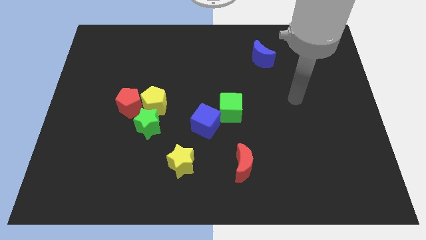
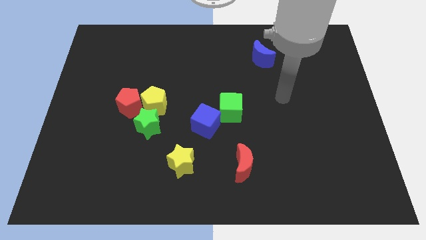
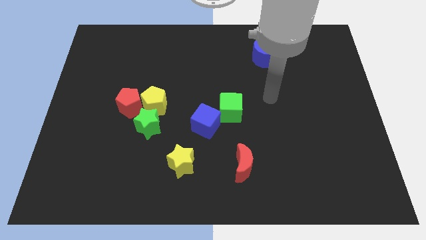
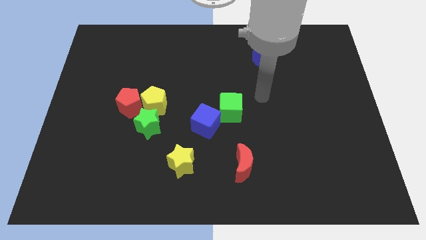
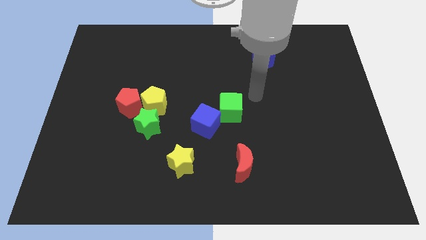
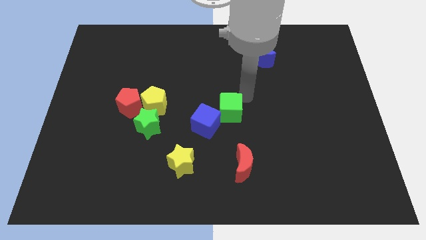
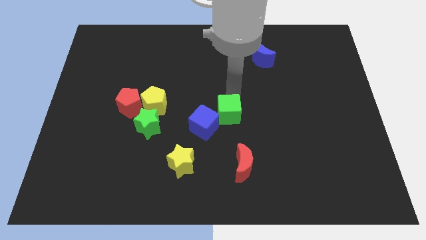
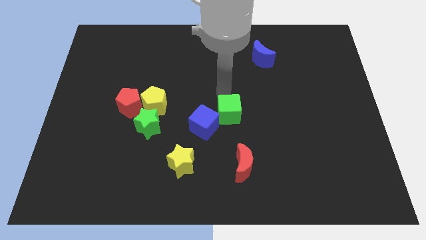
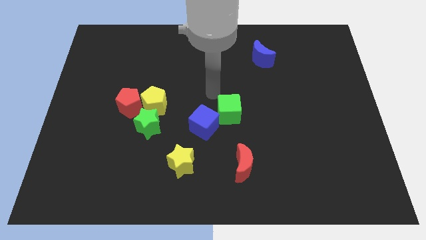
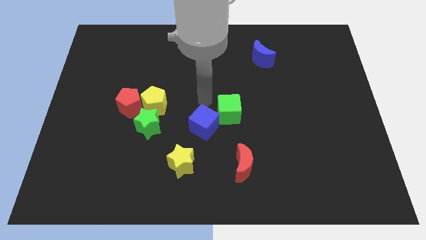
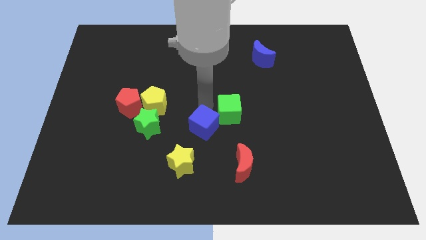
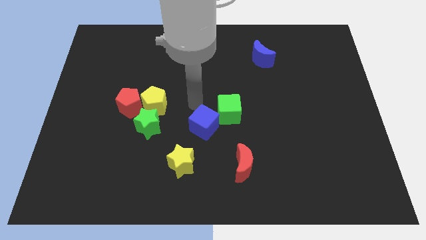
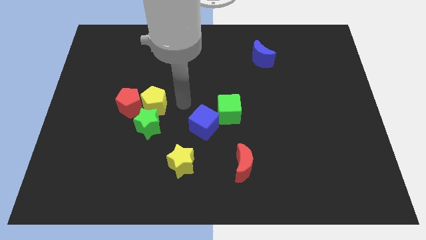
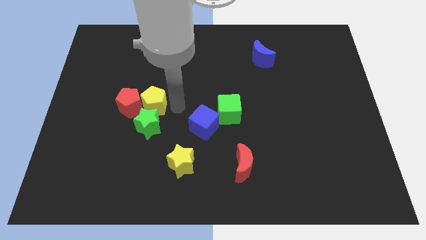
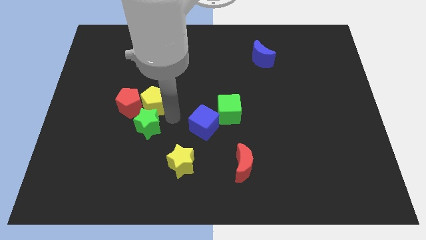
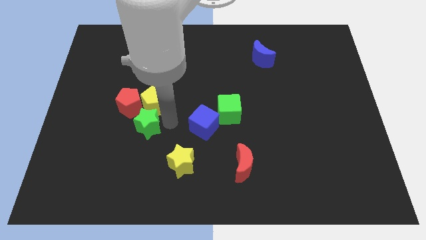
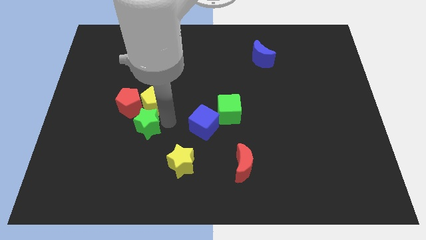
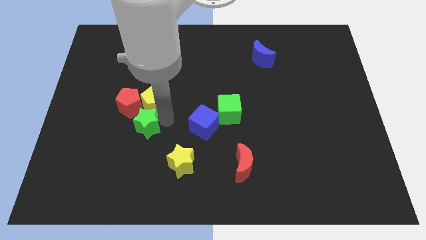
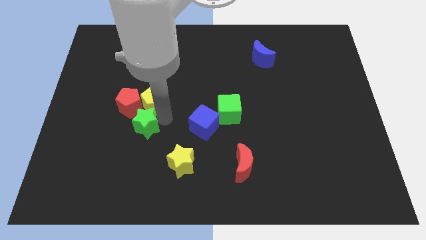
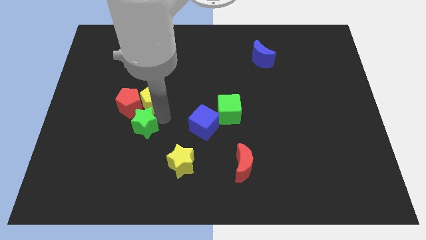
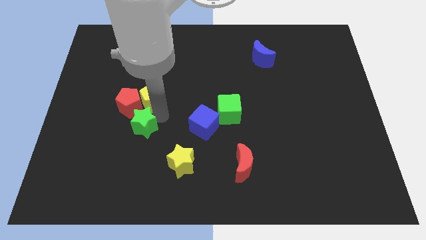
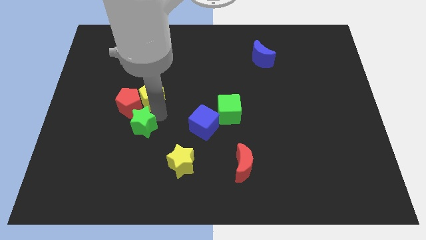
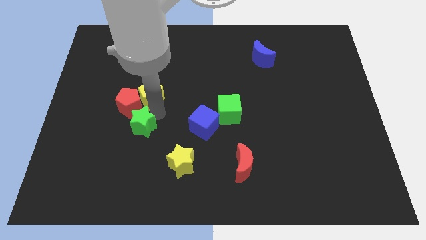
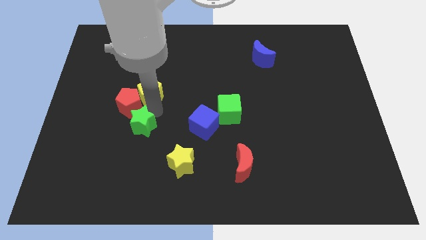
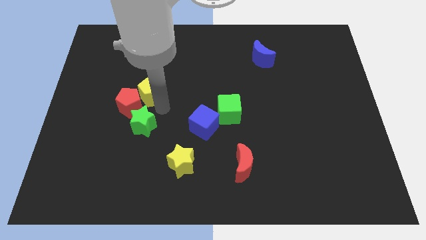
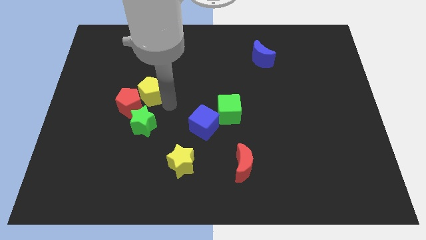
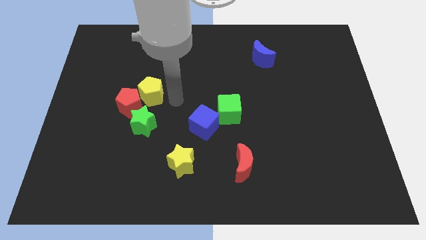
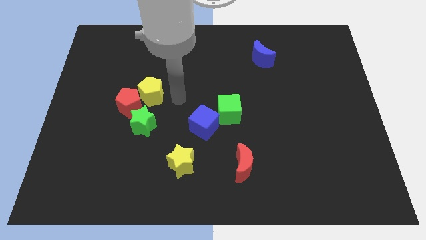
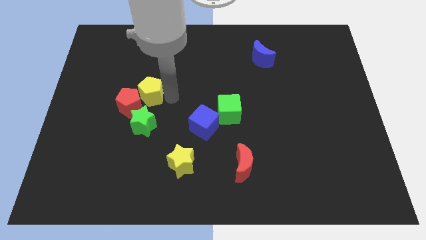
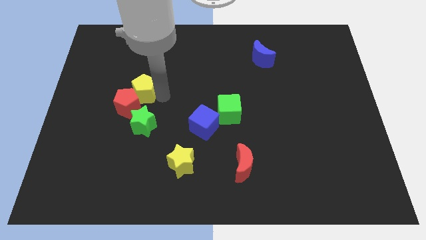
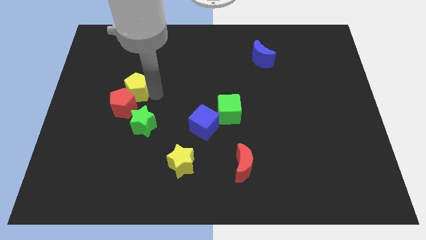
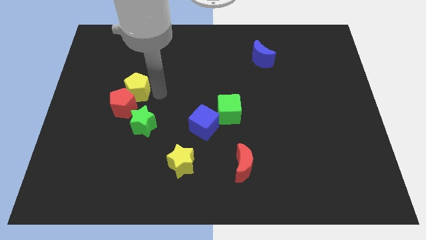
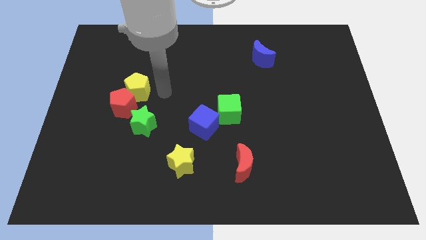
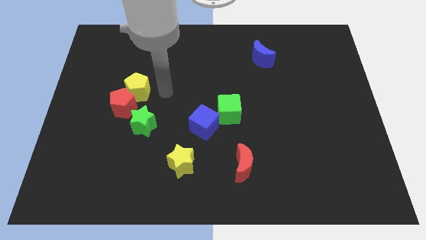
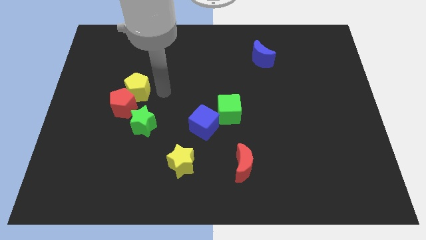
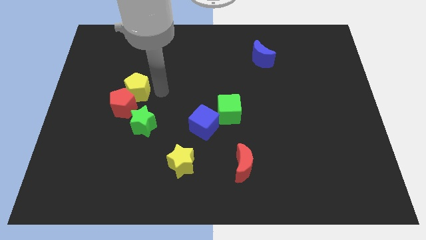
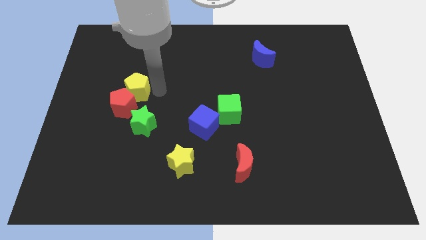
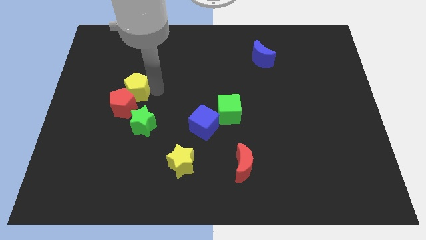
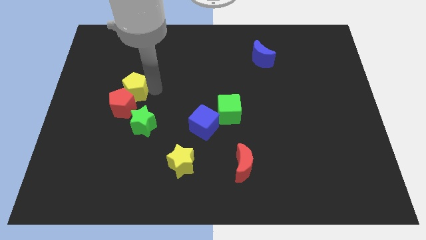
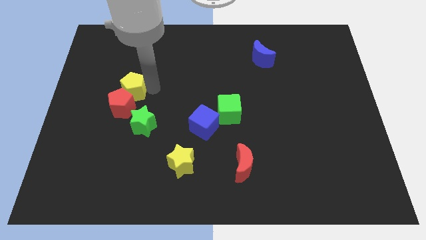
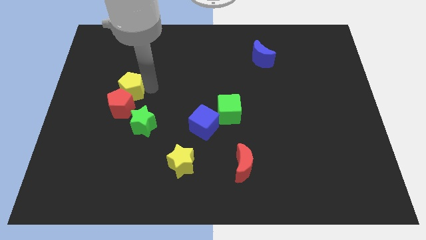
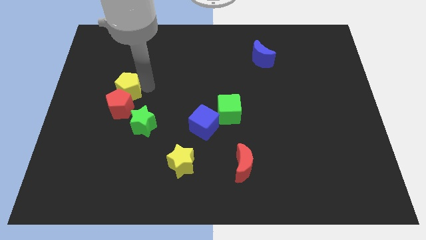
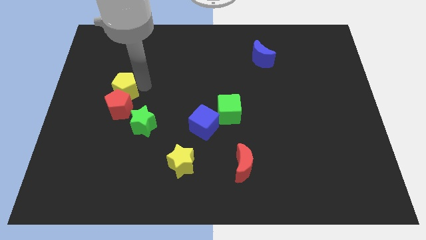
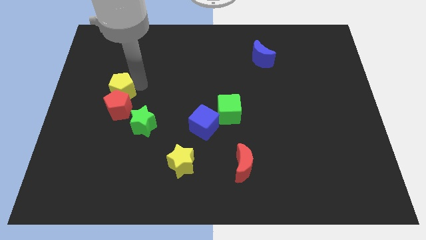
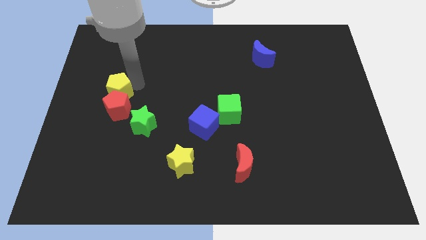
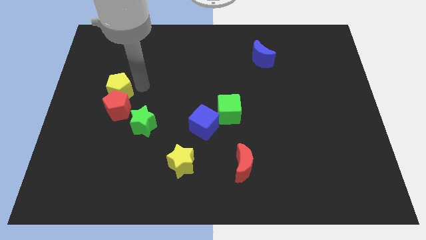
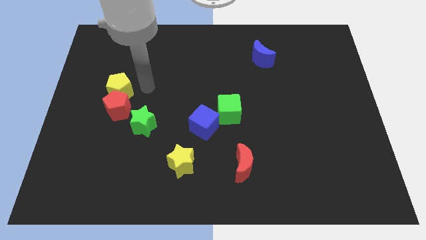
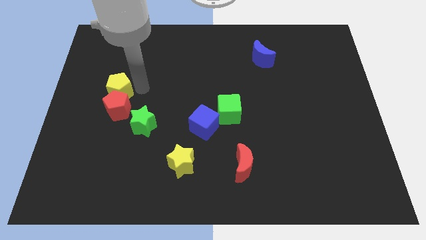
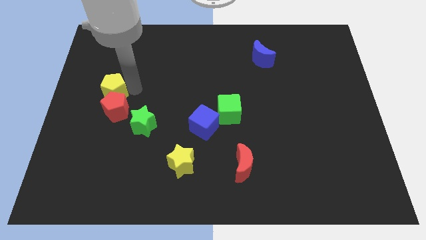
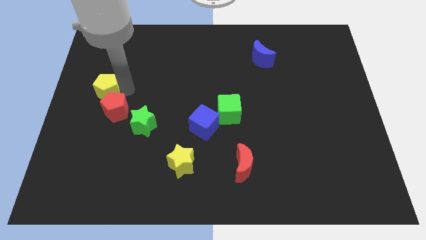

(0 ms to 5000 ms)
put the yellow pentagon to the left side of the board
